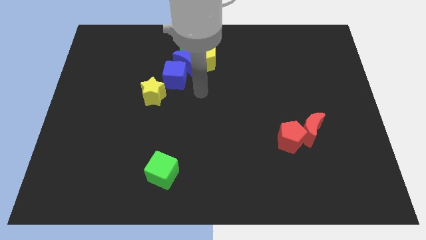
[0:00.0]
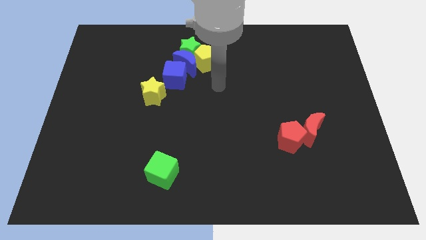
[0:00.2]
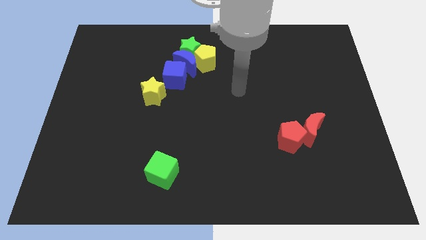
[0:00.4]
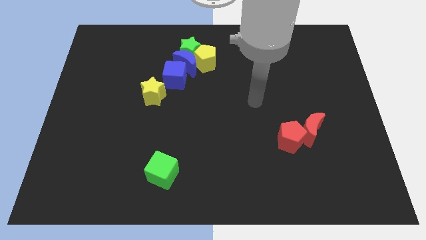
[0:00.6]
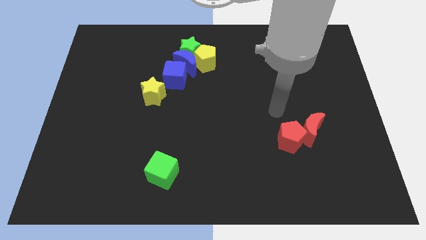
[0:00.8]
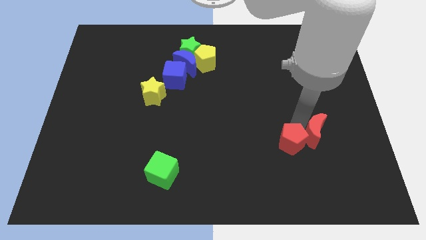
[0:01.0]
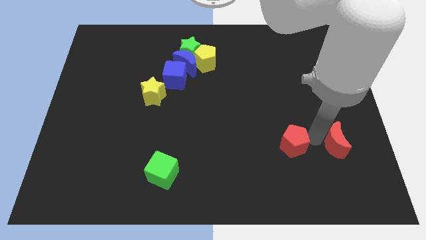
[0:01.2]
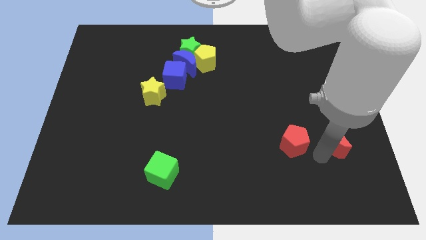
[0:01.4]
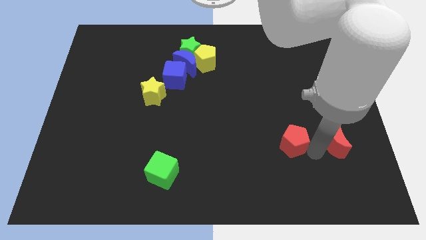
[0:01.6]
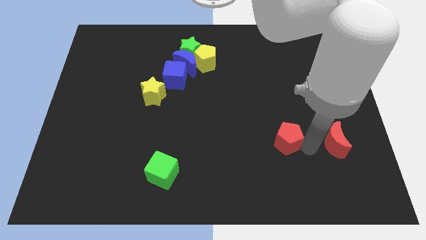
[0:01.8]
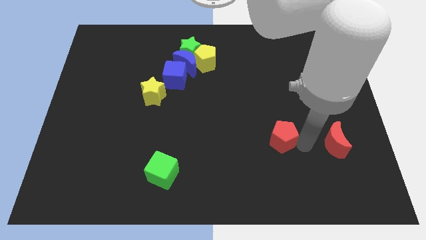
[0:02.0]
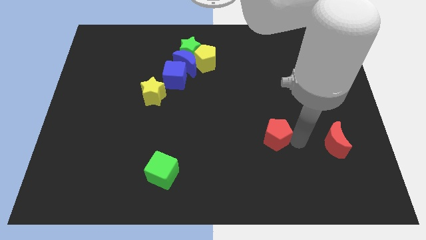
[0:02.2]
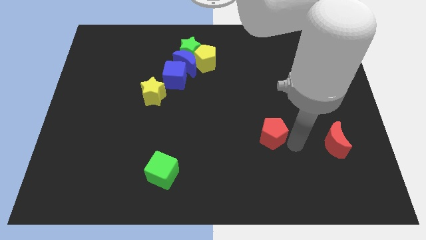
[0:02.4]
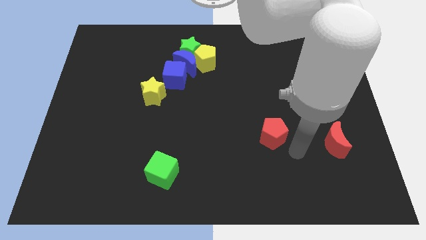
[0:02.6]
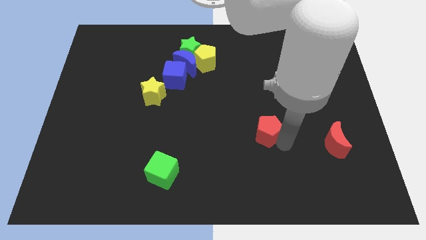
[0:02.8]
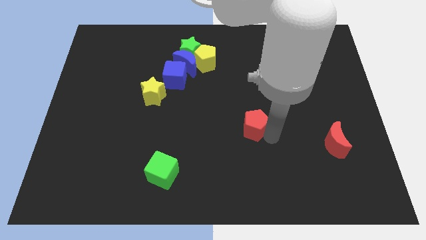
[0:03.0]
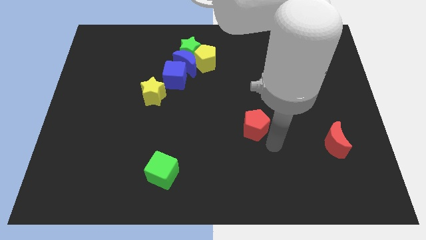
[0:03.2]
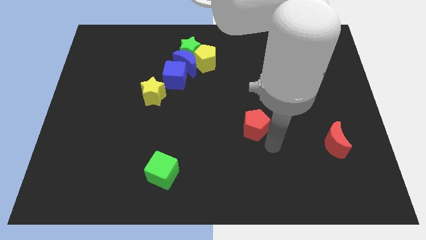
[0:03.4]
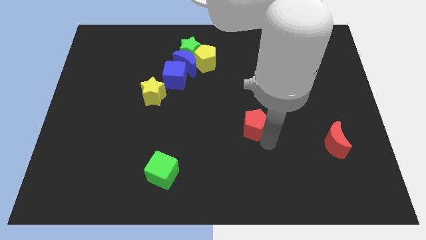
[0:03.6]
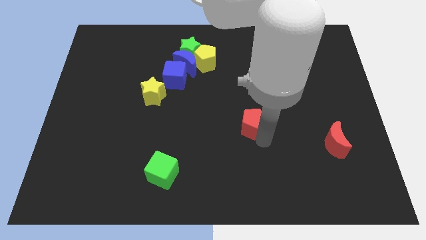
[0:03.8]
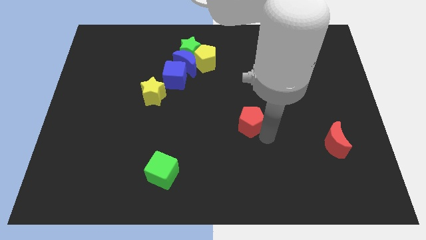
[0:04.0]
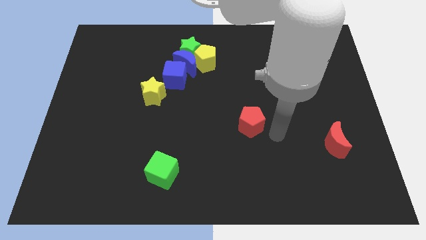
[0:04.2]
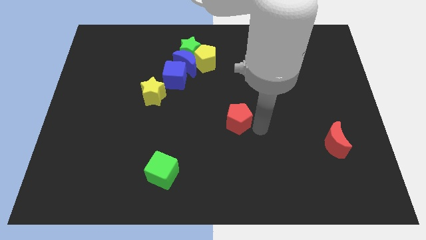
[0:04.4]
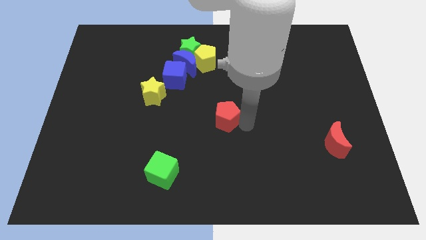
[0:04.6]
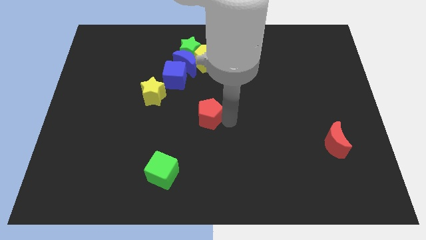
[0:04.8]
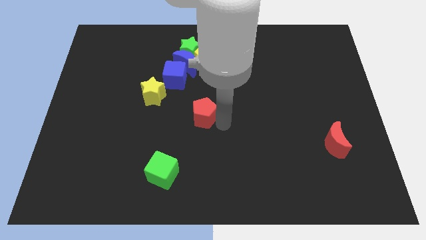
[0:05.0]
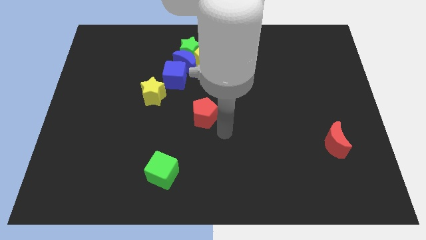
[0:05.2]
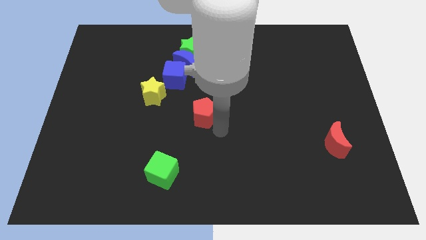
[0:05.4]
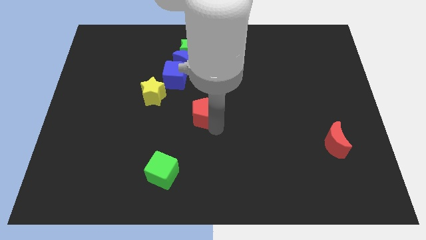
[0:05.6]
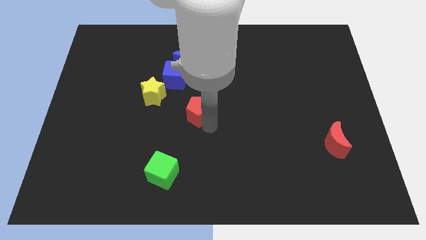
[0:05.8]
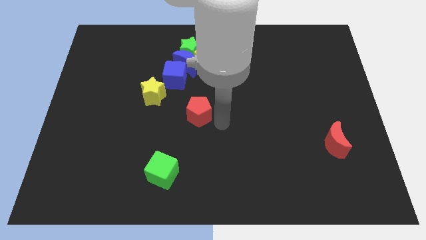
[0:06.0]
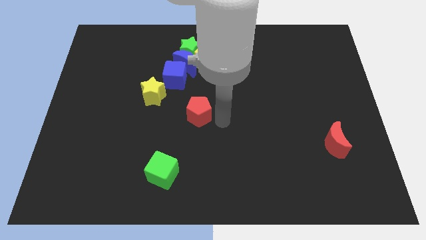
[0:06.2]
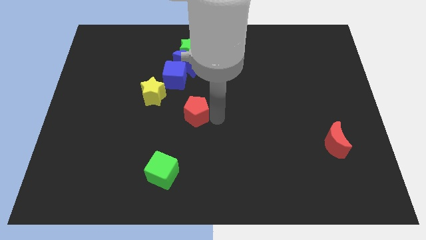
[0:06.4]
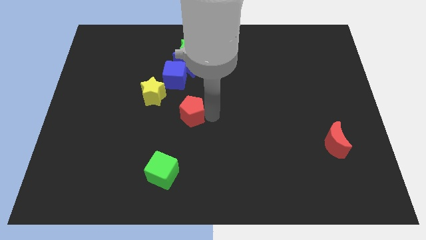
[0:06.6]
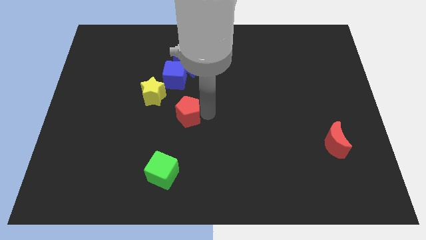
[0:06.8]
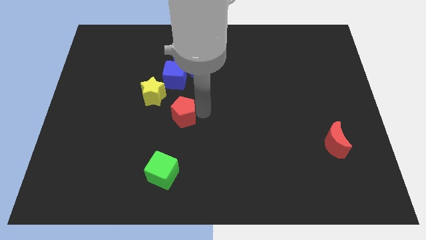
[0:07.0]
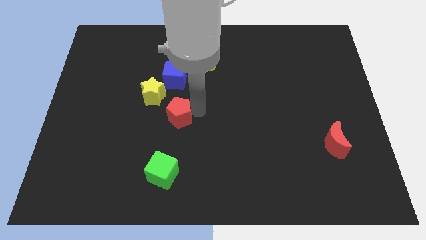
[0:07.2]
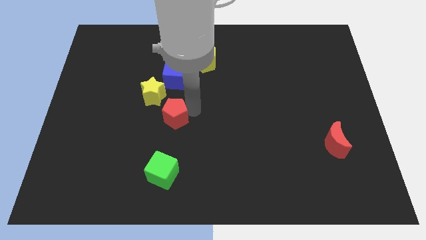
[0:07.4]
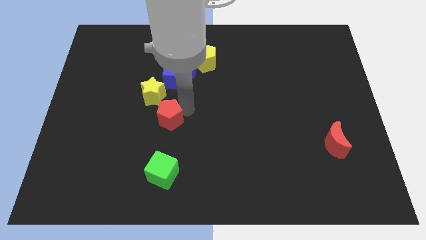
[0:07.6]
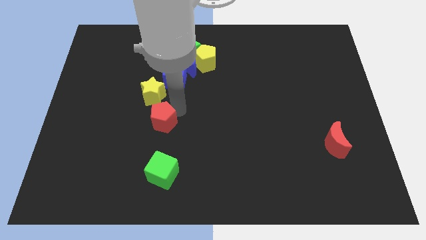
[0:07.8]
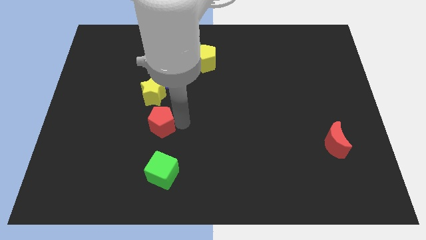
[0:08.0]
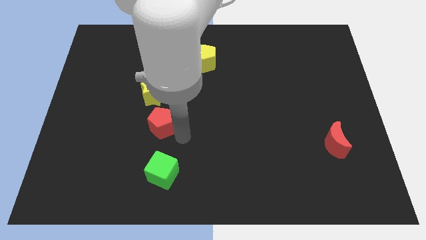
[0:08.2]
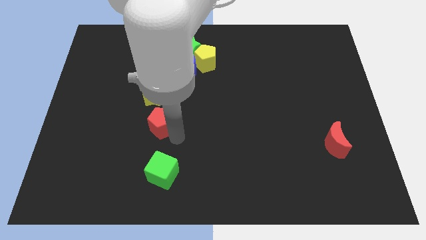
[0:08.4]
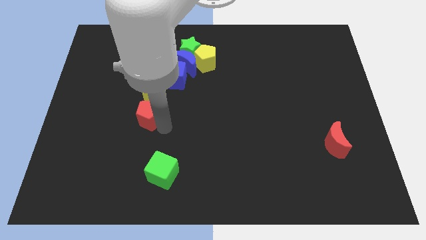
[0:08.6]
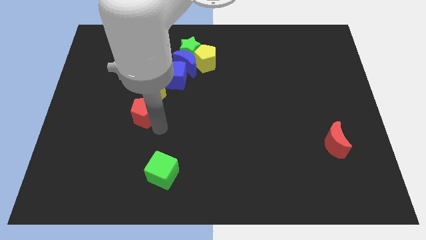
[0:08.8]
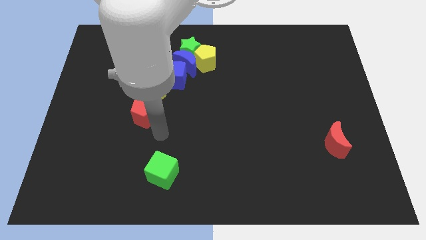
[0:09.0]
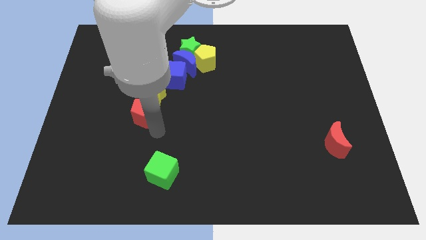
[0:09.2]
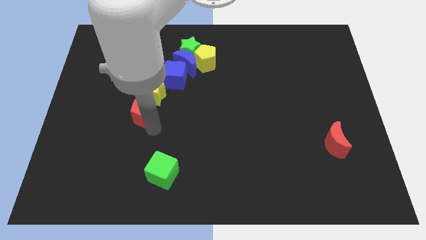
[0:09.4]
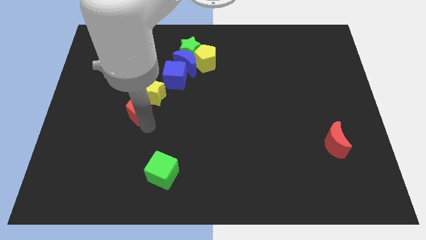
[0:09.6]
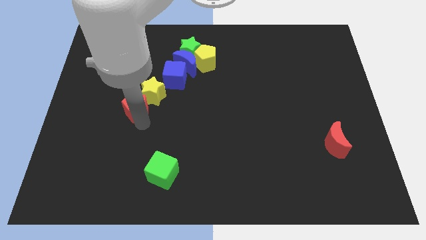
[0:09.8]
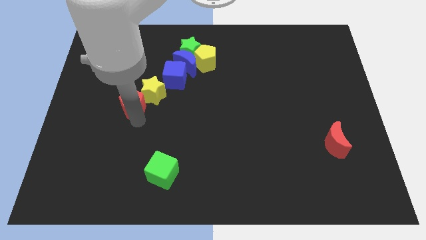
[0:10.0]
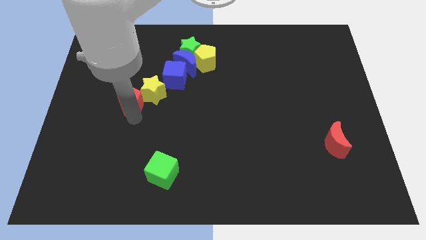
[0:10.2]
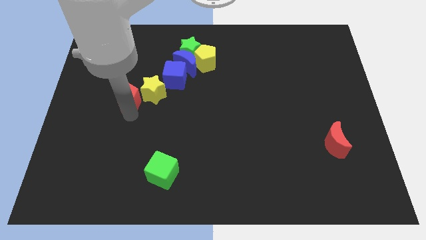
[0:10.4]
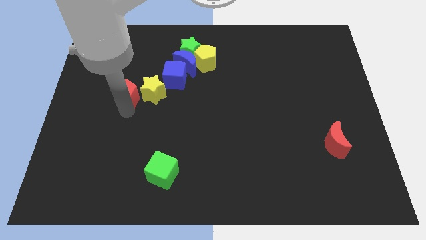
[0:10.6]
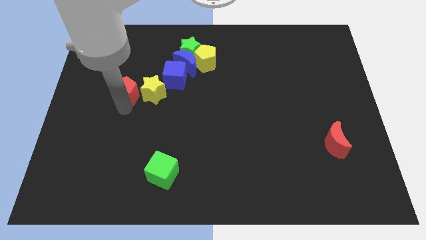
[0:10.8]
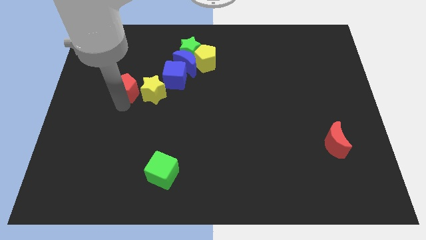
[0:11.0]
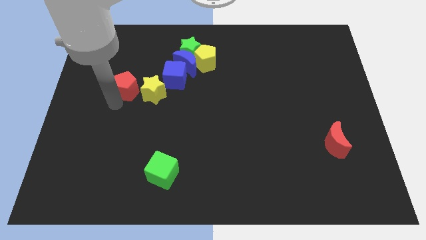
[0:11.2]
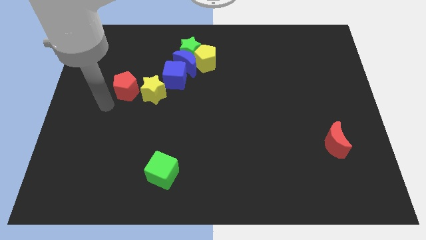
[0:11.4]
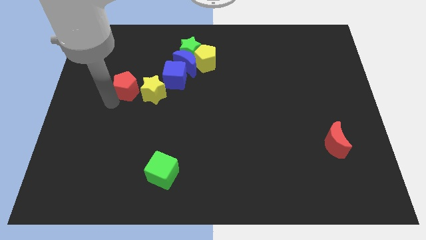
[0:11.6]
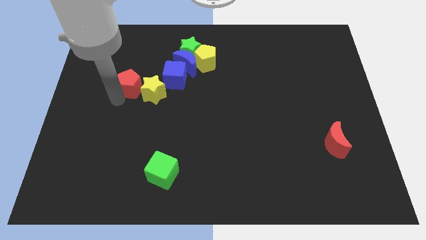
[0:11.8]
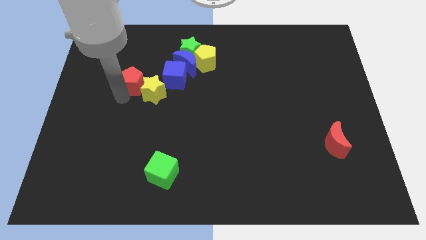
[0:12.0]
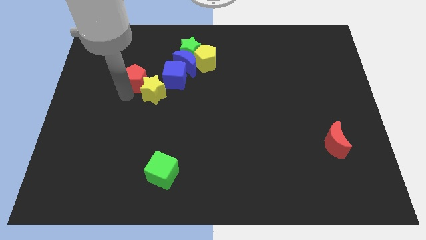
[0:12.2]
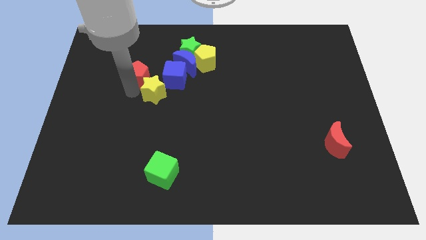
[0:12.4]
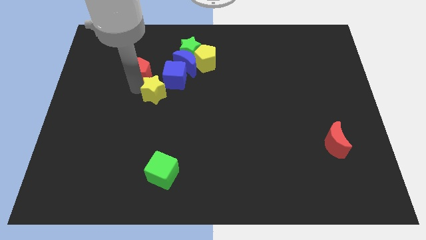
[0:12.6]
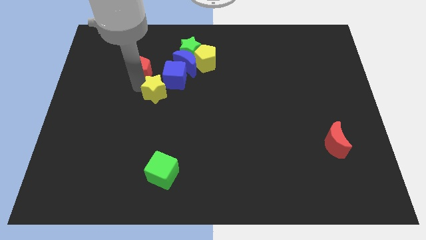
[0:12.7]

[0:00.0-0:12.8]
slide the red pentagon to the top left of the blue cube
